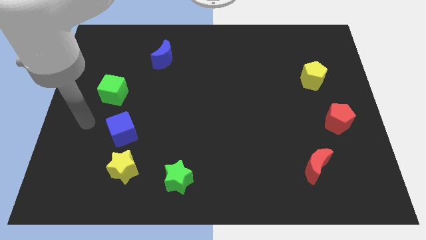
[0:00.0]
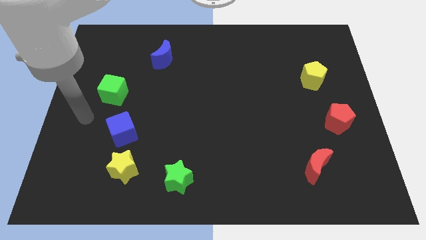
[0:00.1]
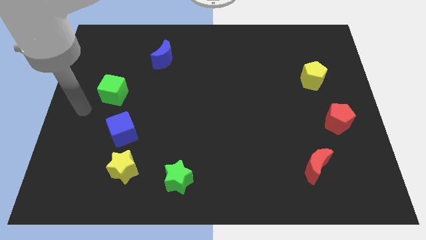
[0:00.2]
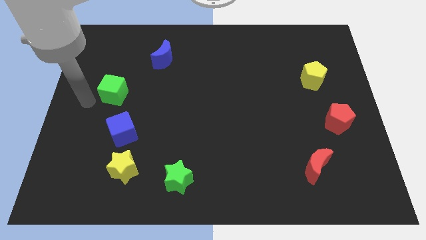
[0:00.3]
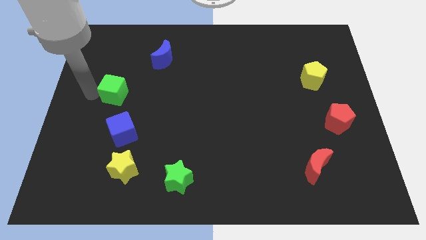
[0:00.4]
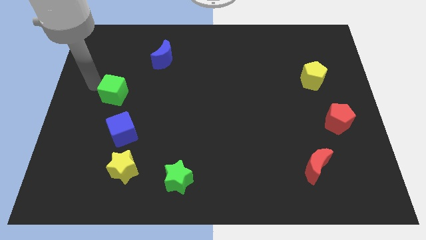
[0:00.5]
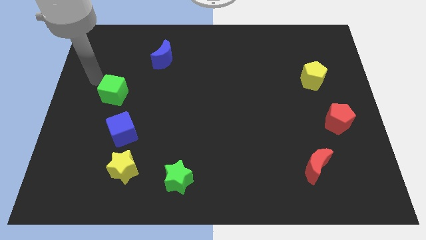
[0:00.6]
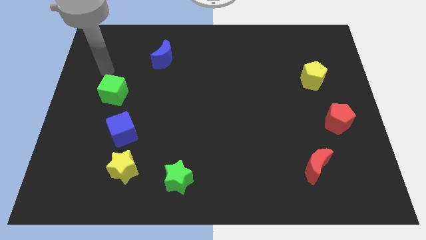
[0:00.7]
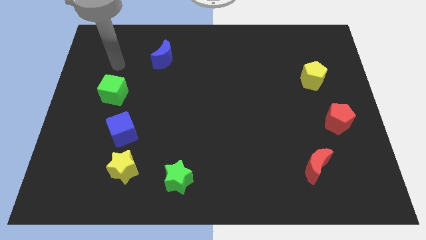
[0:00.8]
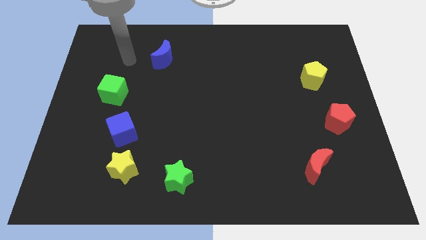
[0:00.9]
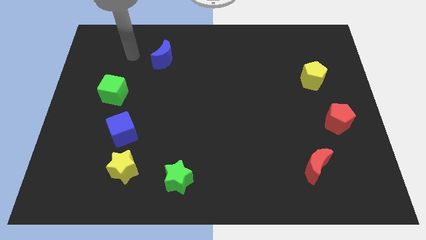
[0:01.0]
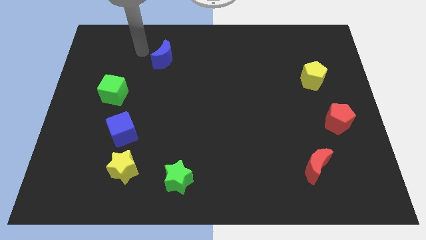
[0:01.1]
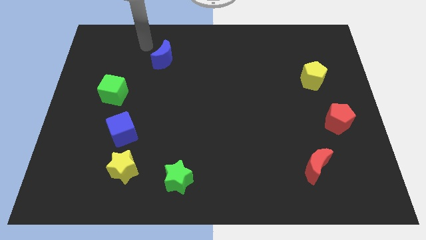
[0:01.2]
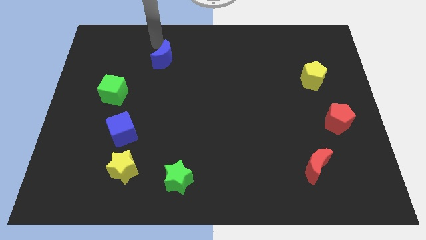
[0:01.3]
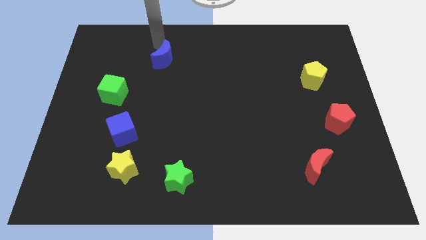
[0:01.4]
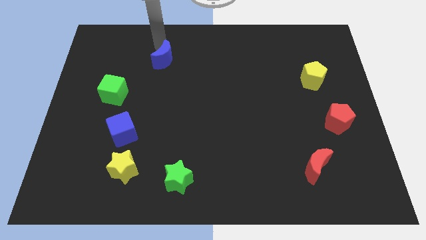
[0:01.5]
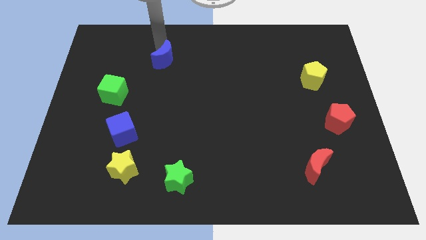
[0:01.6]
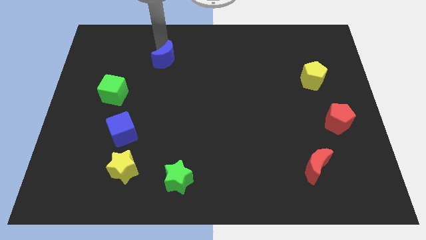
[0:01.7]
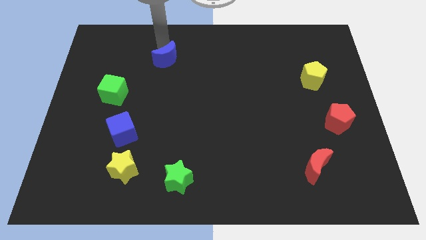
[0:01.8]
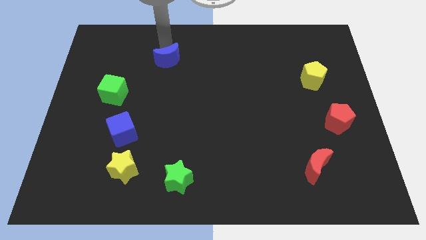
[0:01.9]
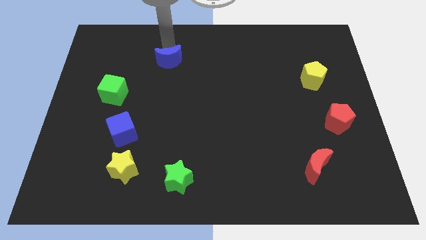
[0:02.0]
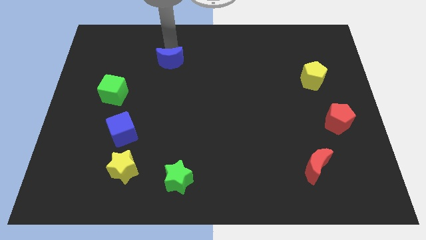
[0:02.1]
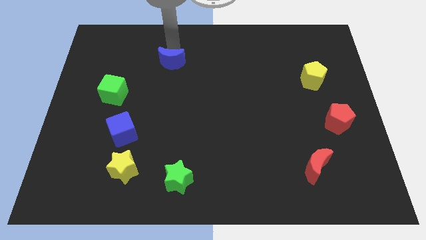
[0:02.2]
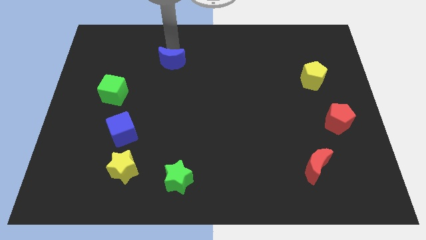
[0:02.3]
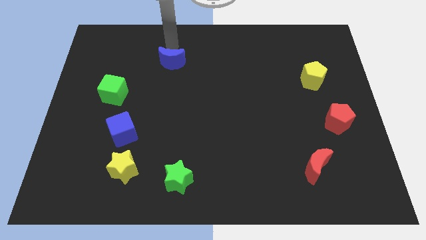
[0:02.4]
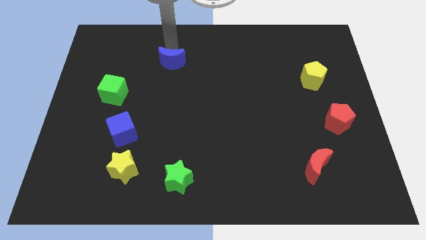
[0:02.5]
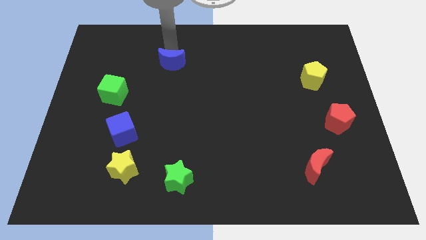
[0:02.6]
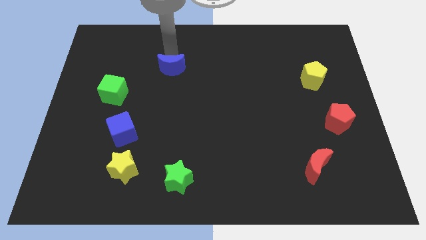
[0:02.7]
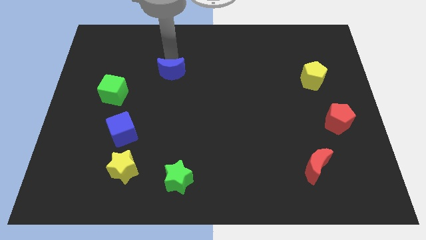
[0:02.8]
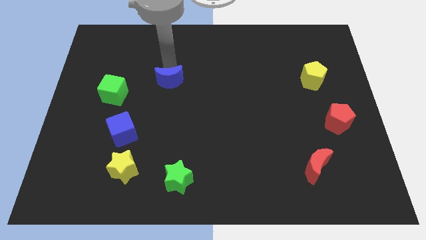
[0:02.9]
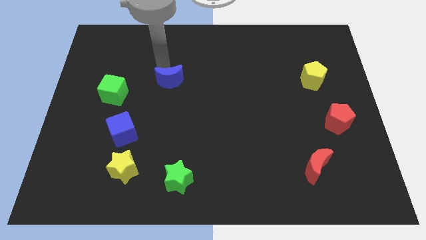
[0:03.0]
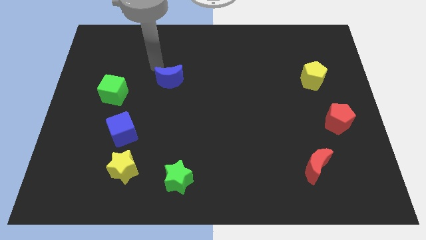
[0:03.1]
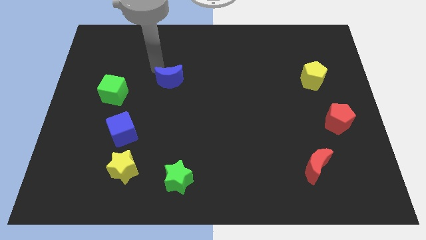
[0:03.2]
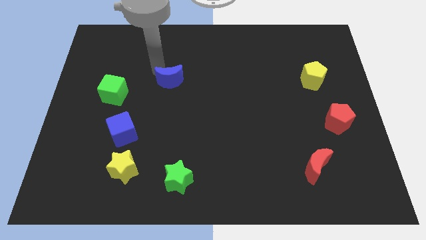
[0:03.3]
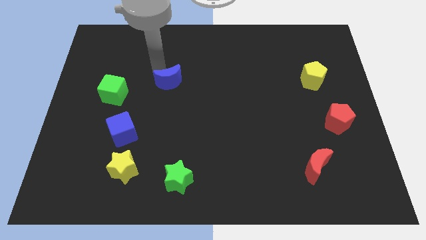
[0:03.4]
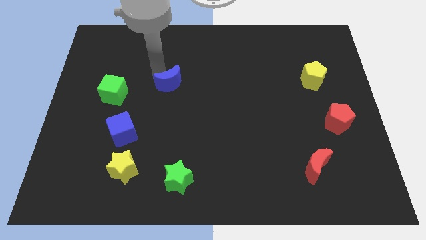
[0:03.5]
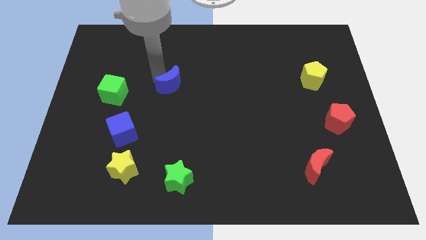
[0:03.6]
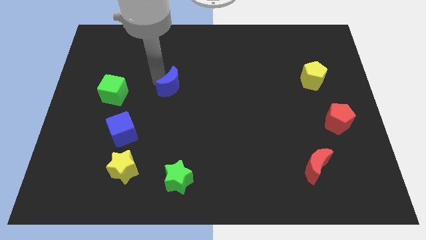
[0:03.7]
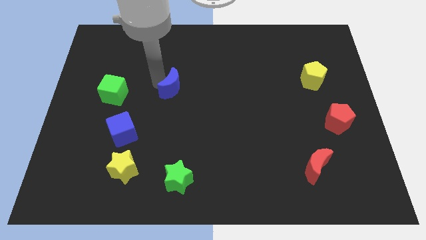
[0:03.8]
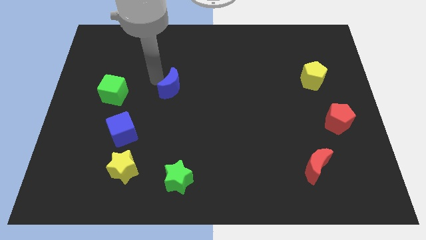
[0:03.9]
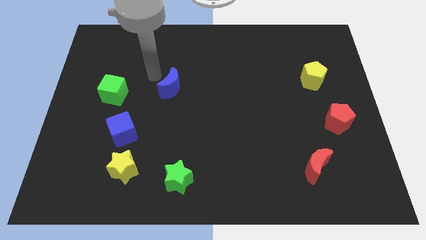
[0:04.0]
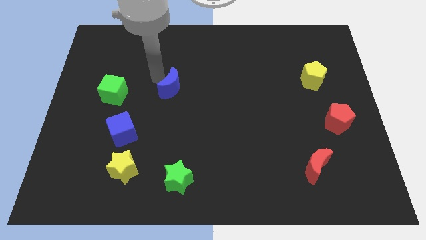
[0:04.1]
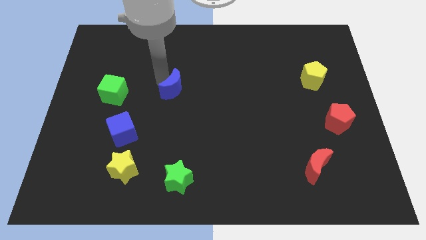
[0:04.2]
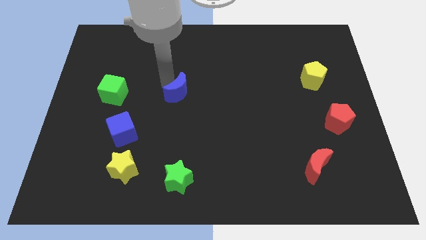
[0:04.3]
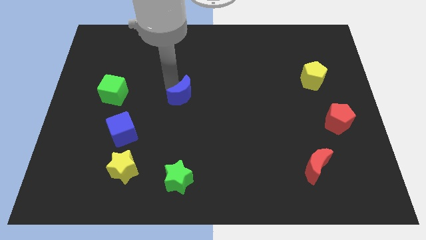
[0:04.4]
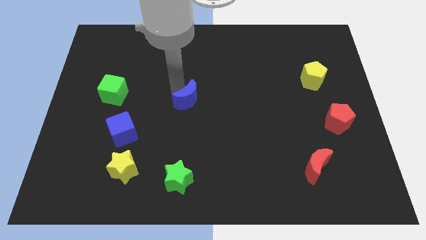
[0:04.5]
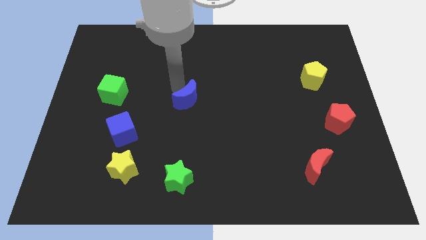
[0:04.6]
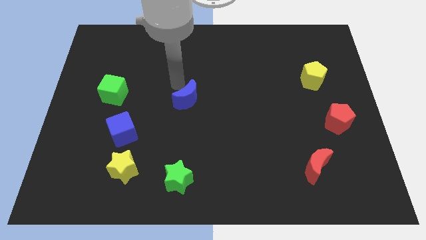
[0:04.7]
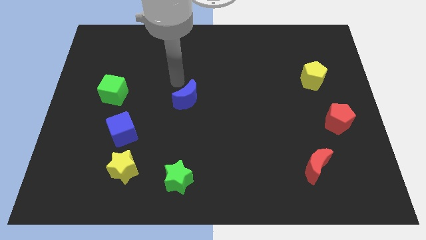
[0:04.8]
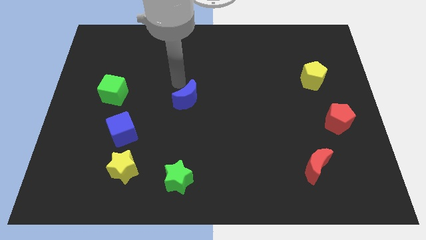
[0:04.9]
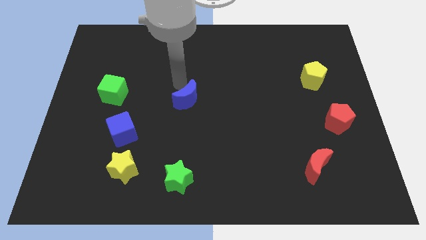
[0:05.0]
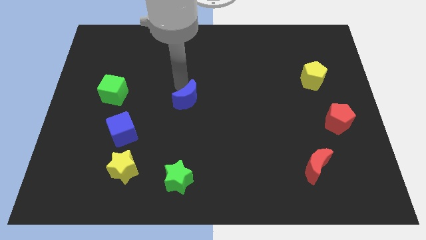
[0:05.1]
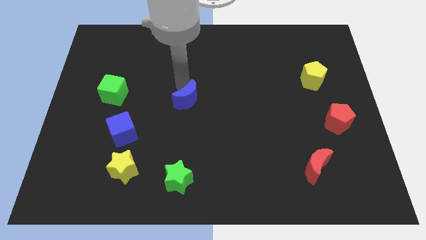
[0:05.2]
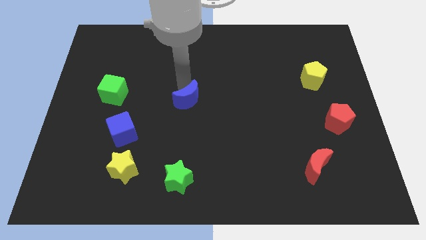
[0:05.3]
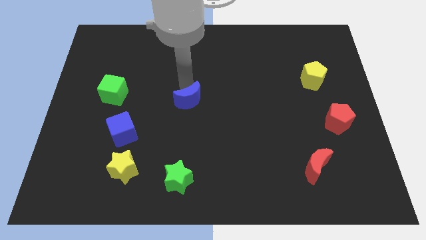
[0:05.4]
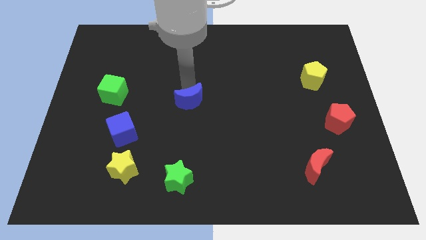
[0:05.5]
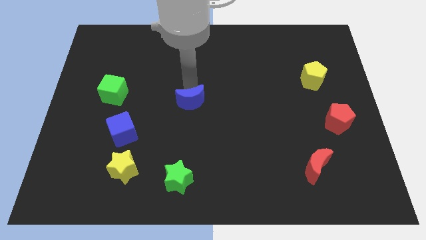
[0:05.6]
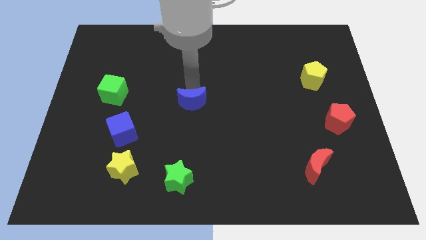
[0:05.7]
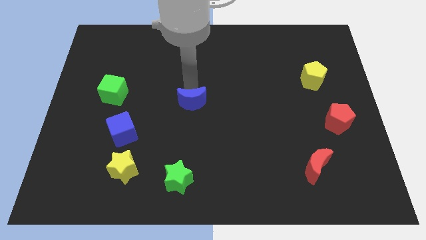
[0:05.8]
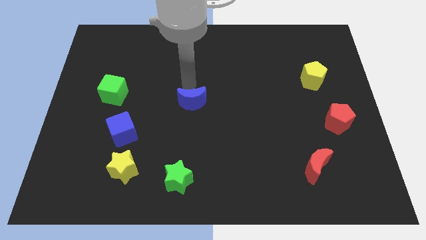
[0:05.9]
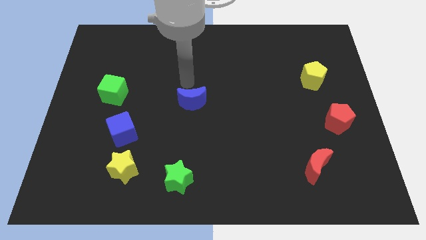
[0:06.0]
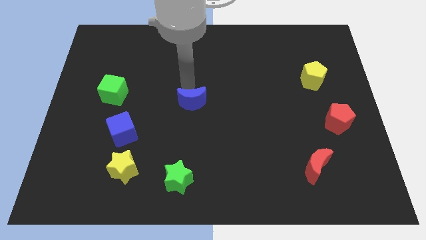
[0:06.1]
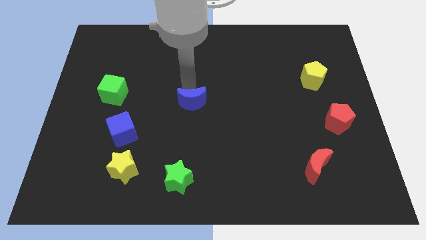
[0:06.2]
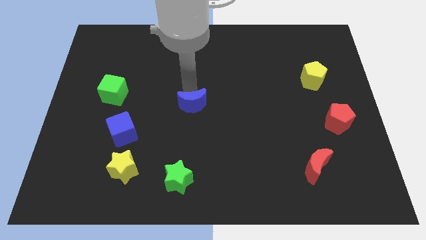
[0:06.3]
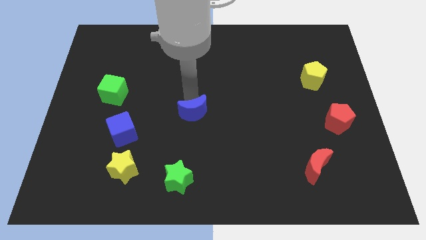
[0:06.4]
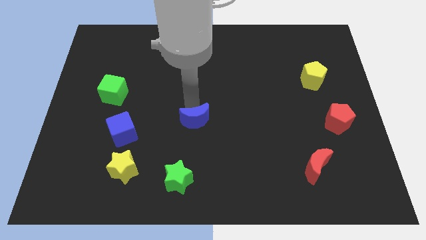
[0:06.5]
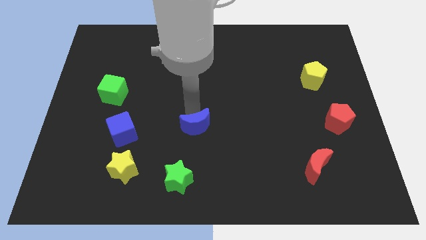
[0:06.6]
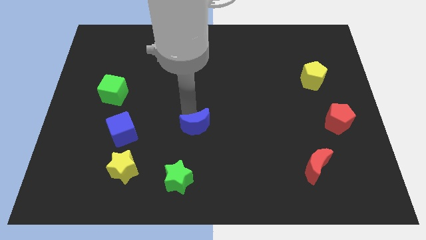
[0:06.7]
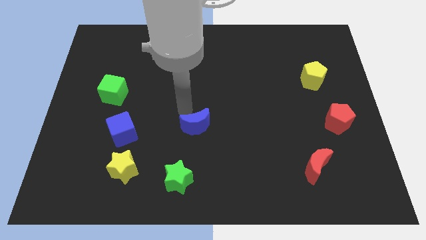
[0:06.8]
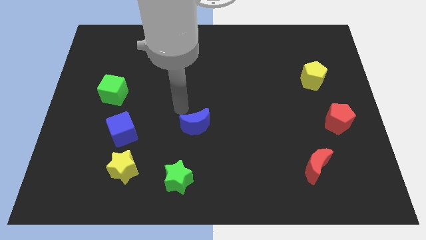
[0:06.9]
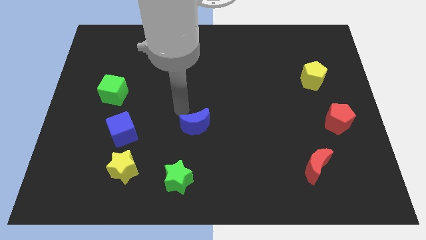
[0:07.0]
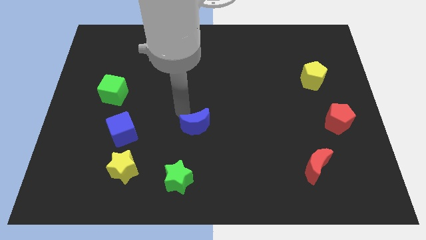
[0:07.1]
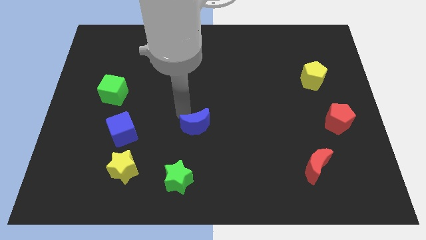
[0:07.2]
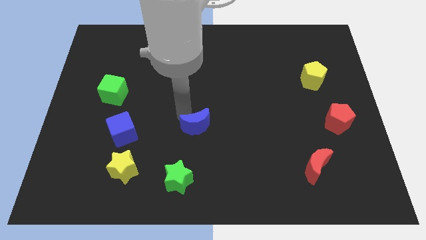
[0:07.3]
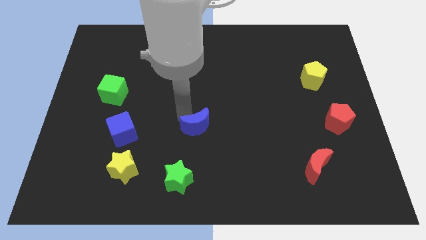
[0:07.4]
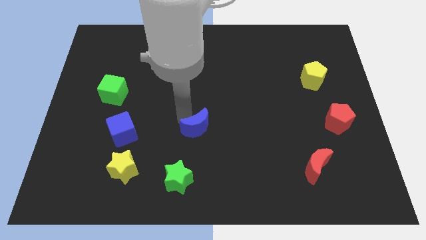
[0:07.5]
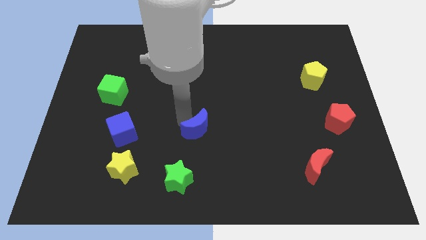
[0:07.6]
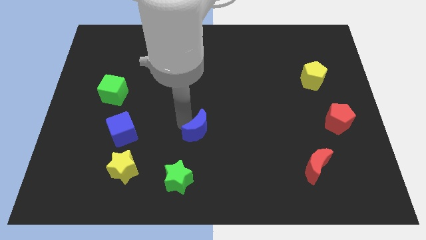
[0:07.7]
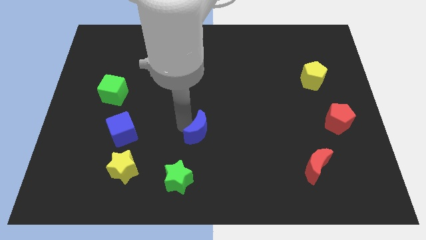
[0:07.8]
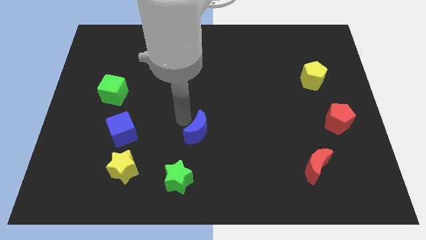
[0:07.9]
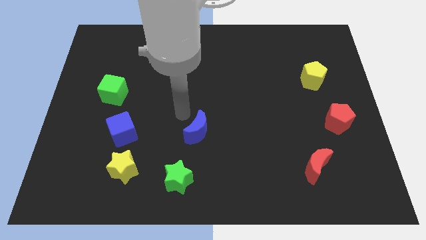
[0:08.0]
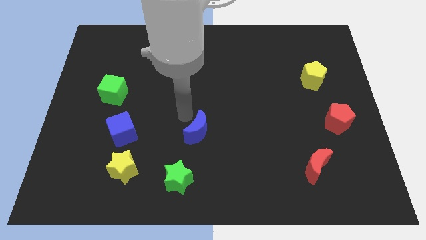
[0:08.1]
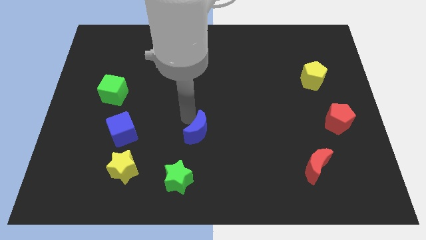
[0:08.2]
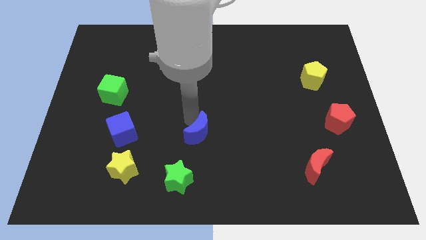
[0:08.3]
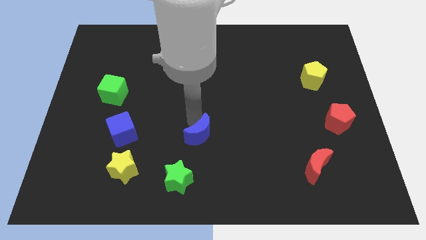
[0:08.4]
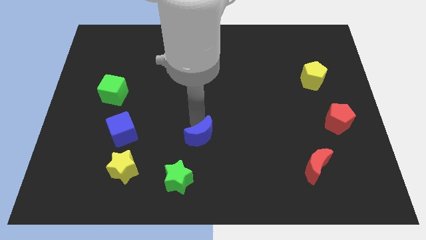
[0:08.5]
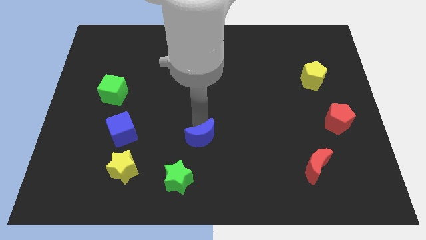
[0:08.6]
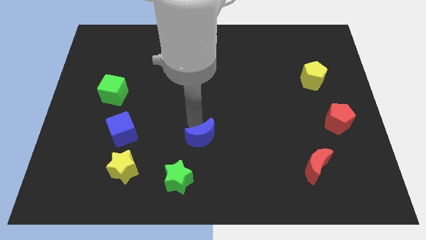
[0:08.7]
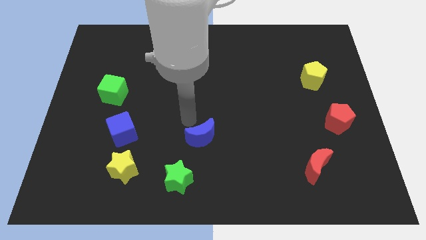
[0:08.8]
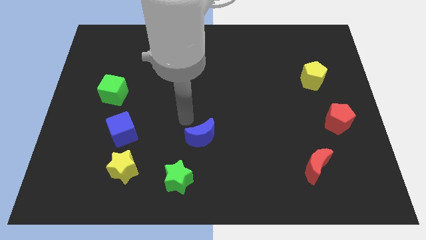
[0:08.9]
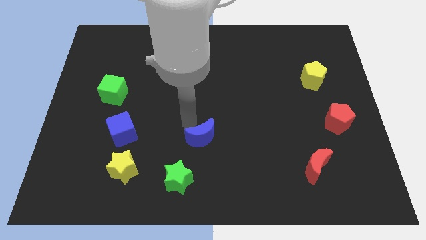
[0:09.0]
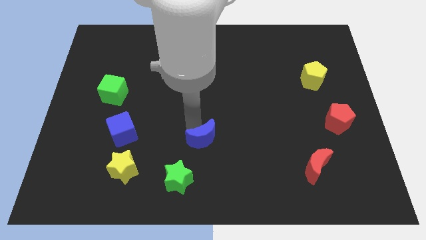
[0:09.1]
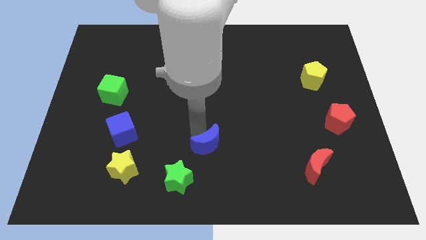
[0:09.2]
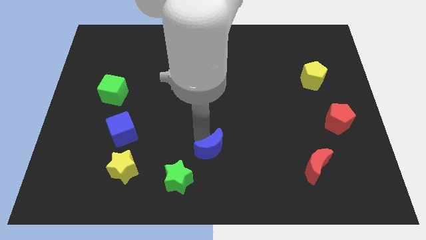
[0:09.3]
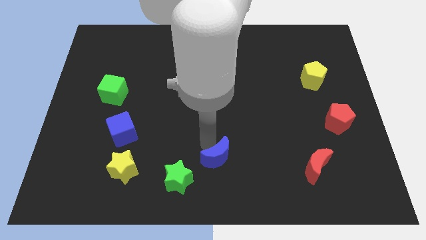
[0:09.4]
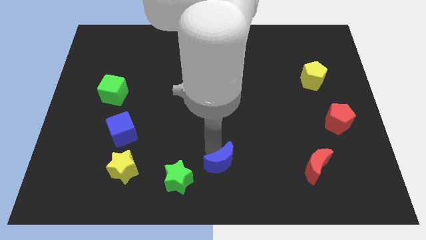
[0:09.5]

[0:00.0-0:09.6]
move the blue moon to the right of the green star
